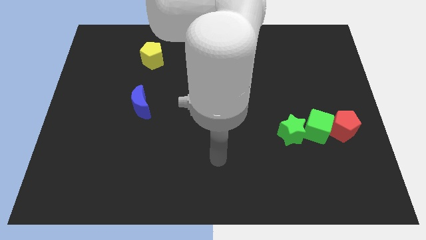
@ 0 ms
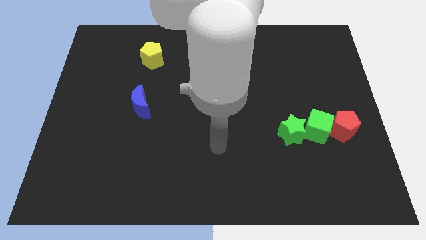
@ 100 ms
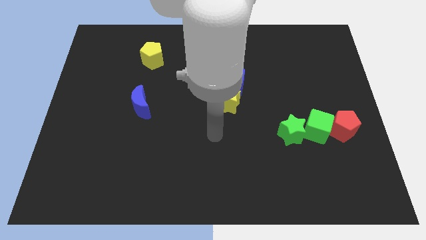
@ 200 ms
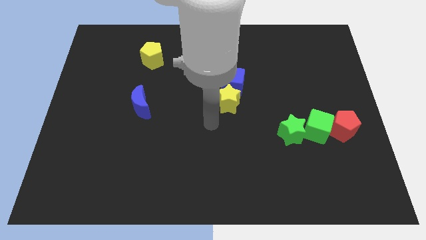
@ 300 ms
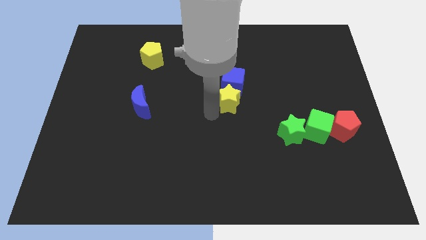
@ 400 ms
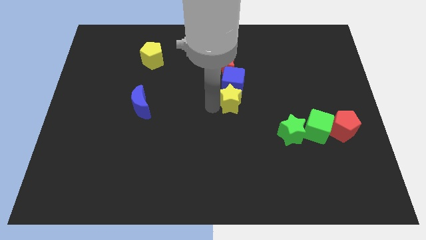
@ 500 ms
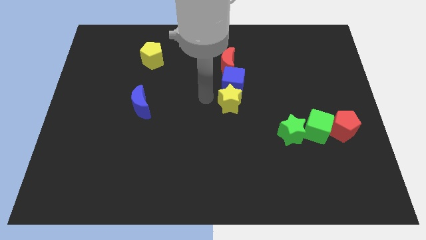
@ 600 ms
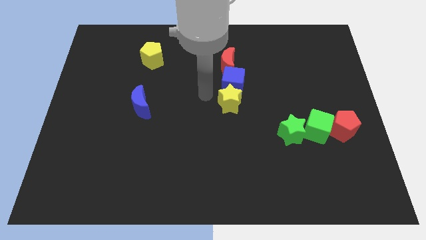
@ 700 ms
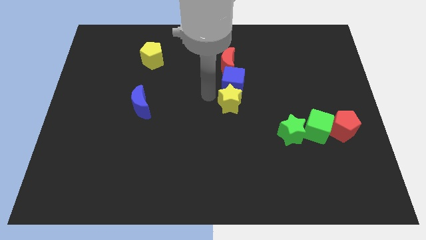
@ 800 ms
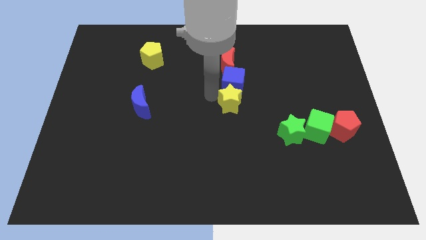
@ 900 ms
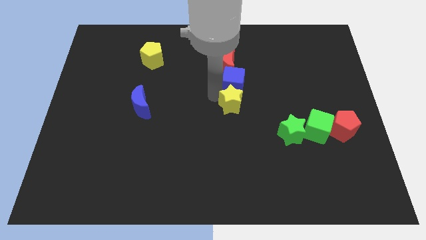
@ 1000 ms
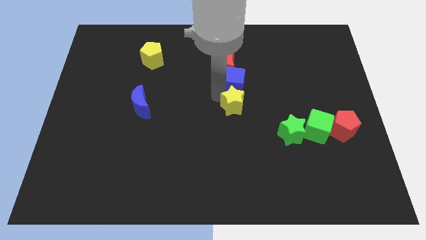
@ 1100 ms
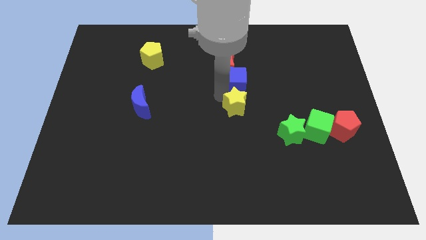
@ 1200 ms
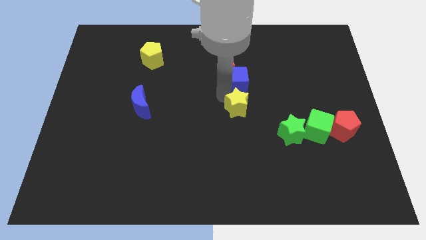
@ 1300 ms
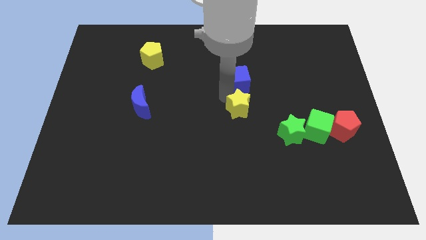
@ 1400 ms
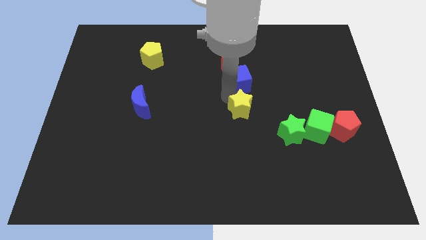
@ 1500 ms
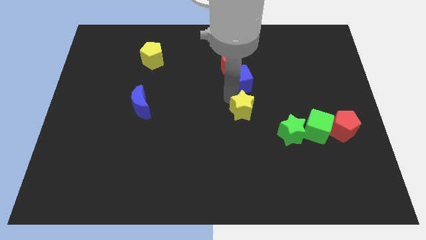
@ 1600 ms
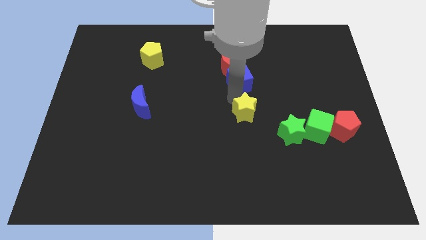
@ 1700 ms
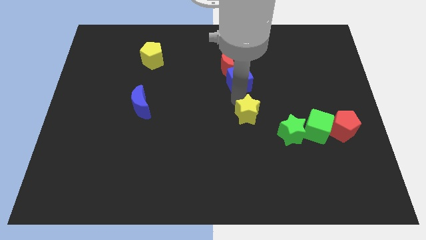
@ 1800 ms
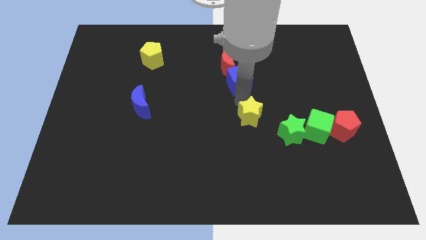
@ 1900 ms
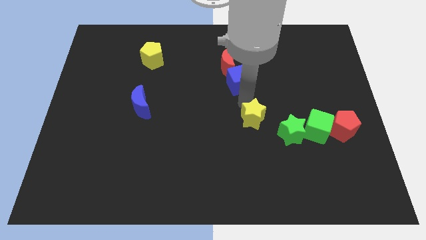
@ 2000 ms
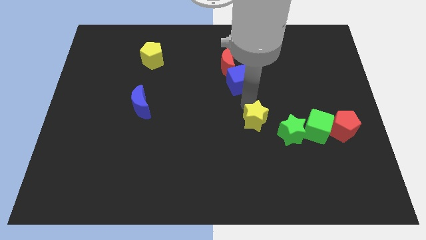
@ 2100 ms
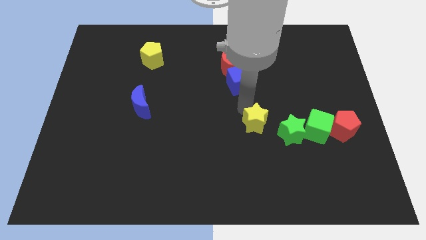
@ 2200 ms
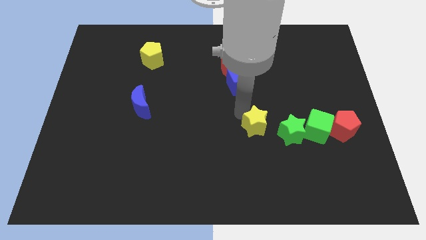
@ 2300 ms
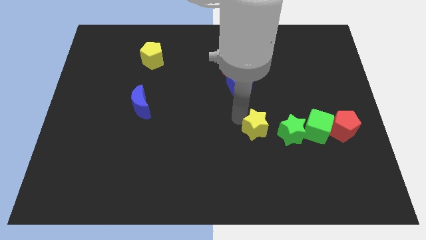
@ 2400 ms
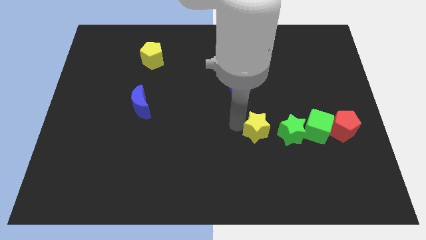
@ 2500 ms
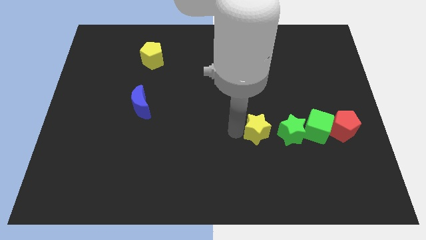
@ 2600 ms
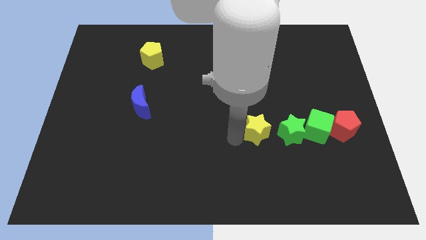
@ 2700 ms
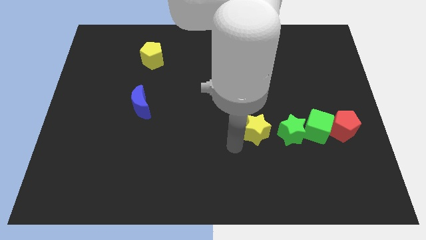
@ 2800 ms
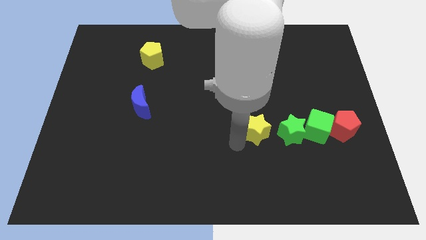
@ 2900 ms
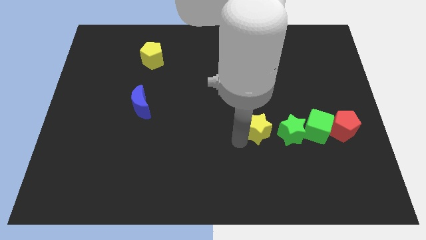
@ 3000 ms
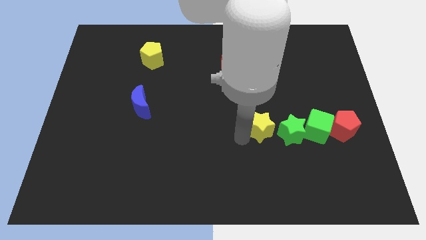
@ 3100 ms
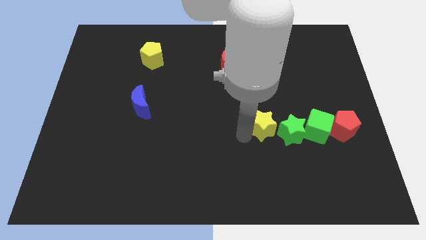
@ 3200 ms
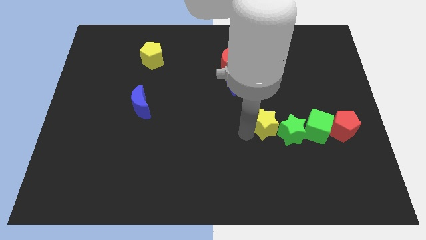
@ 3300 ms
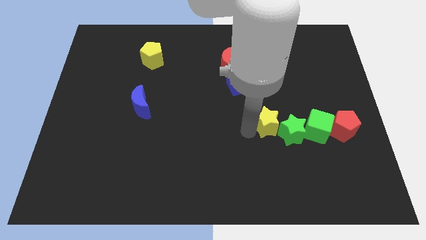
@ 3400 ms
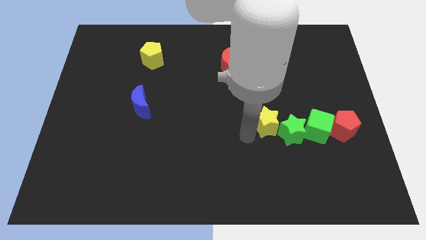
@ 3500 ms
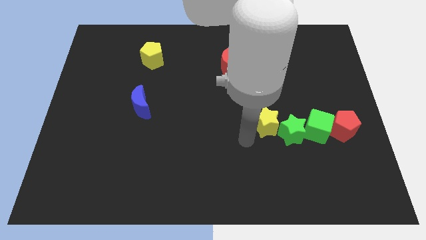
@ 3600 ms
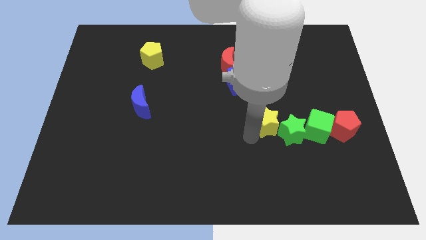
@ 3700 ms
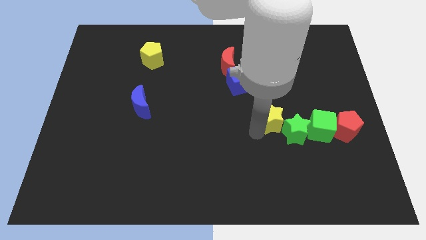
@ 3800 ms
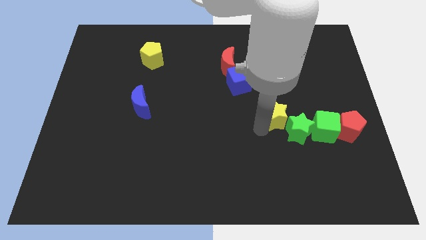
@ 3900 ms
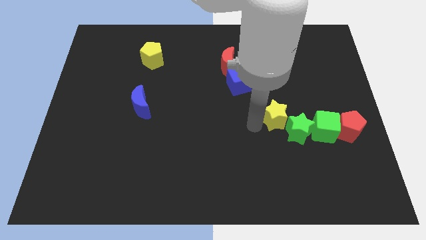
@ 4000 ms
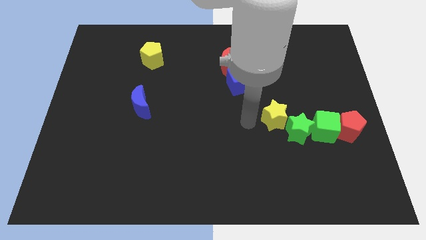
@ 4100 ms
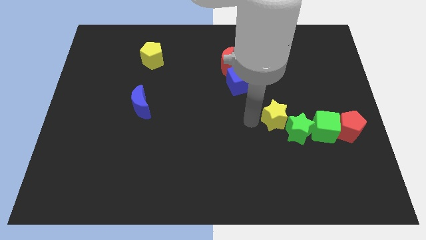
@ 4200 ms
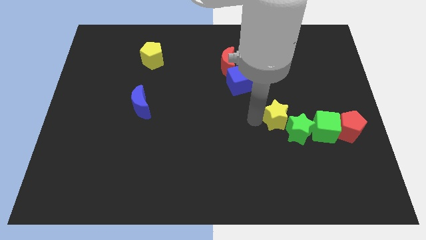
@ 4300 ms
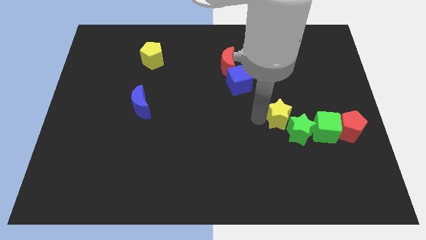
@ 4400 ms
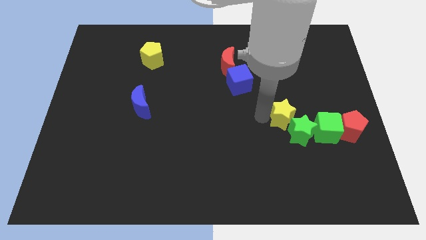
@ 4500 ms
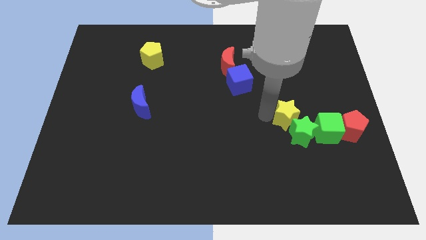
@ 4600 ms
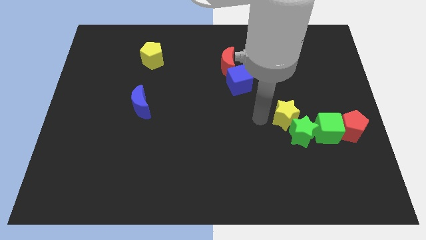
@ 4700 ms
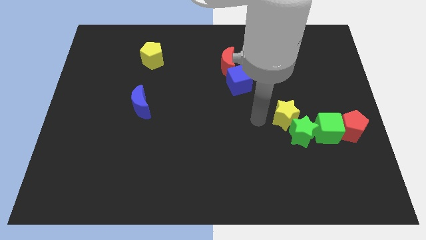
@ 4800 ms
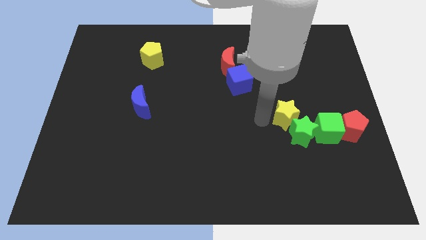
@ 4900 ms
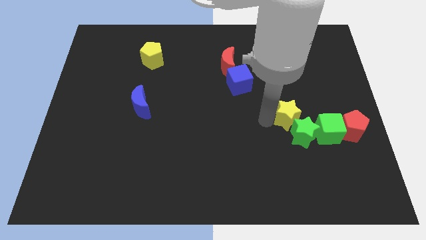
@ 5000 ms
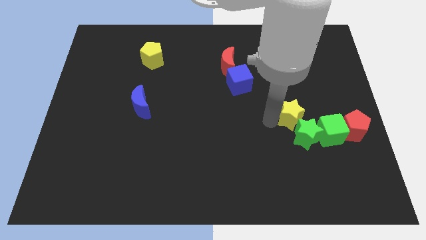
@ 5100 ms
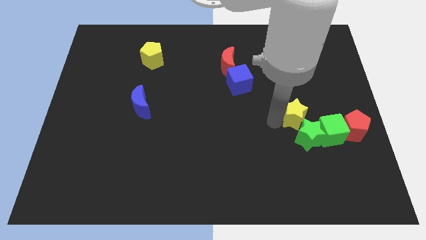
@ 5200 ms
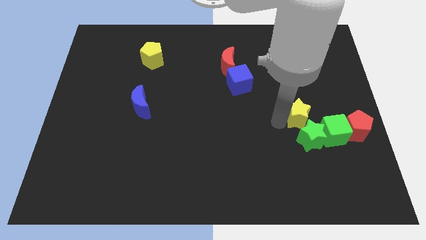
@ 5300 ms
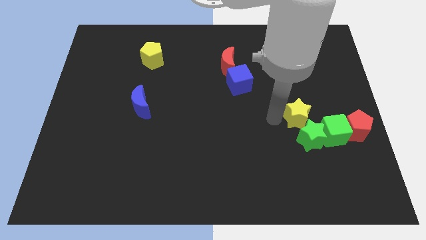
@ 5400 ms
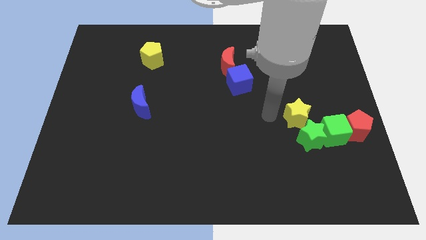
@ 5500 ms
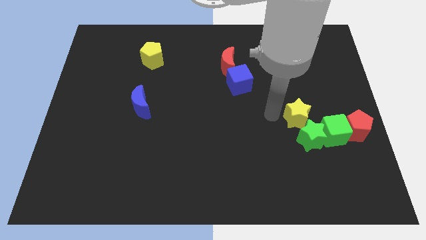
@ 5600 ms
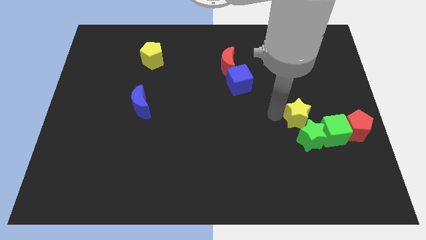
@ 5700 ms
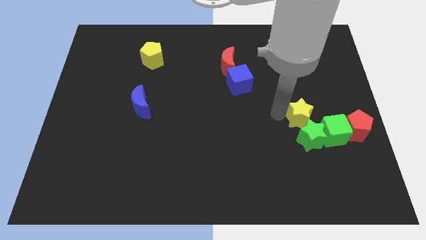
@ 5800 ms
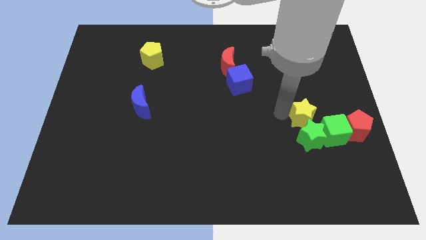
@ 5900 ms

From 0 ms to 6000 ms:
move the yellow star to the top right side of the green star

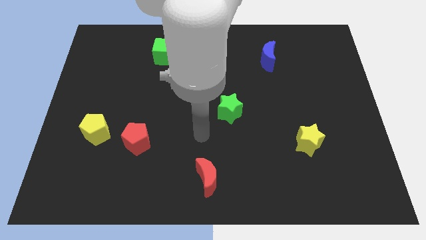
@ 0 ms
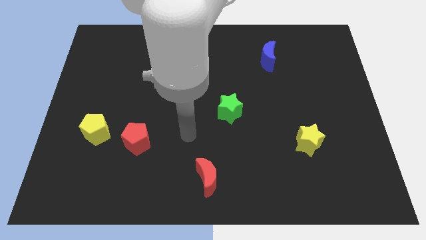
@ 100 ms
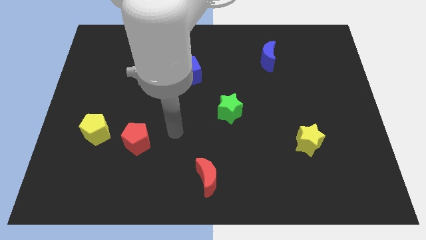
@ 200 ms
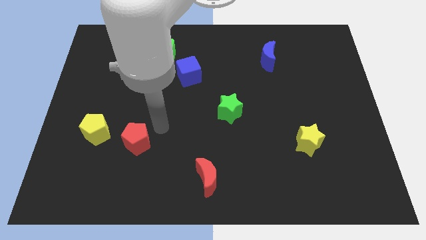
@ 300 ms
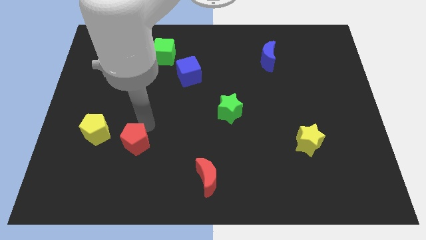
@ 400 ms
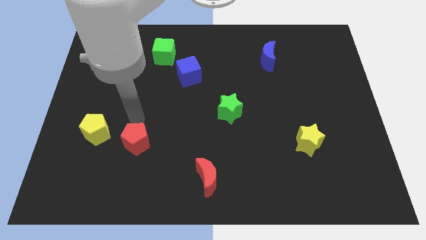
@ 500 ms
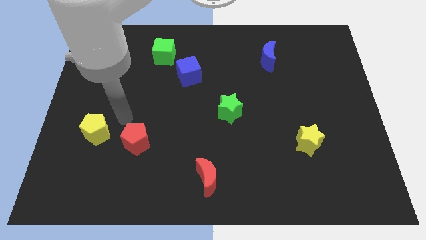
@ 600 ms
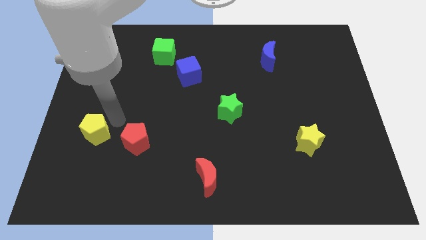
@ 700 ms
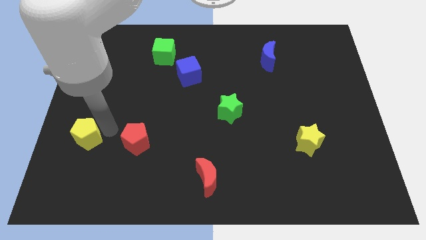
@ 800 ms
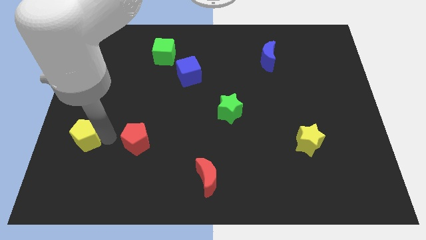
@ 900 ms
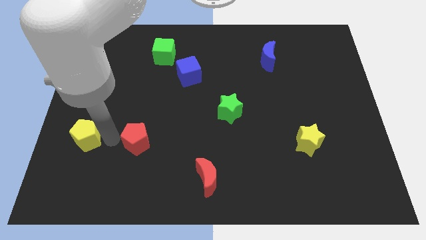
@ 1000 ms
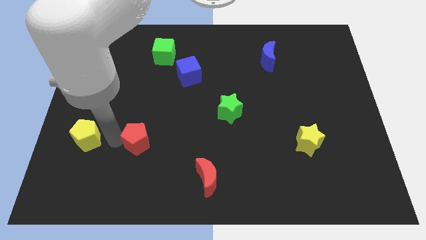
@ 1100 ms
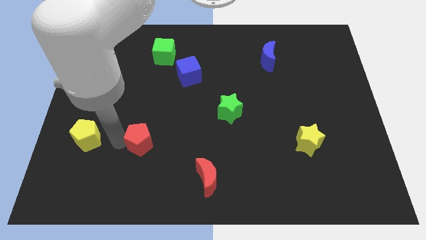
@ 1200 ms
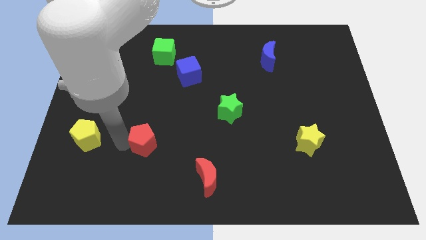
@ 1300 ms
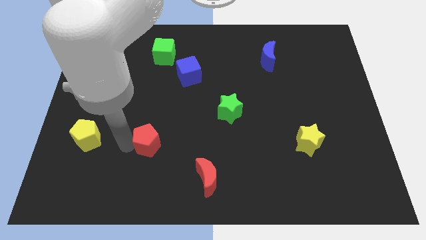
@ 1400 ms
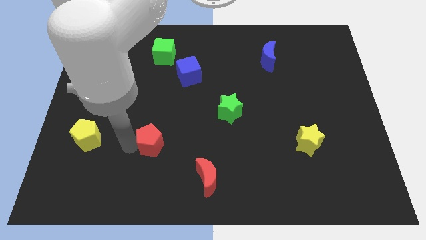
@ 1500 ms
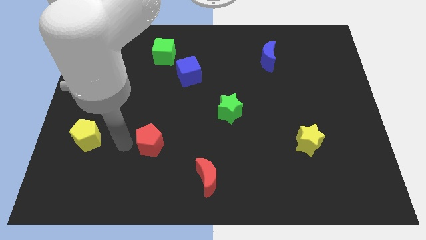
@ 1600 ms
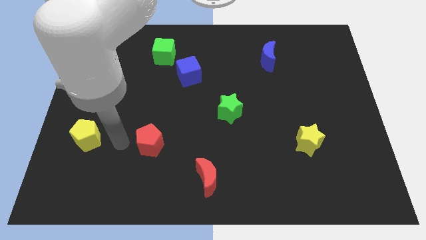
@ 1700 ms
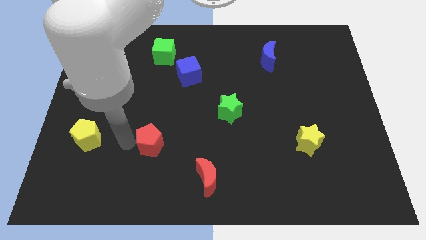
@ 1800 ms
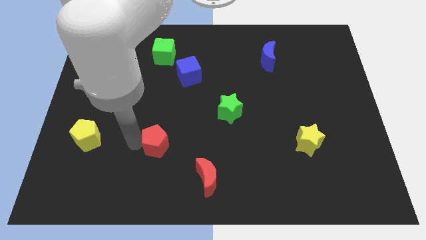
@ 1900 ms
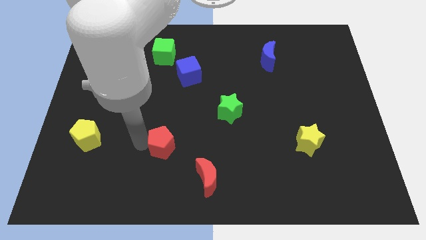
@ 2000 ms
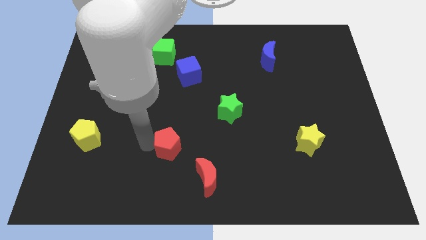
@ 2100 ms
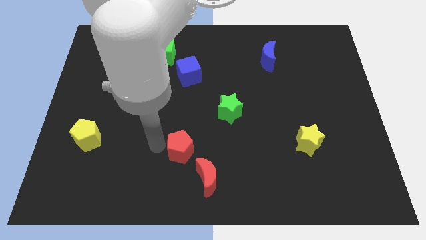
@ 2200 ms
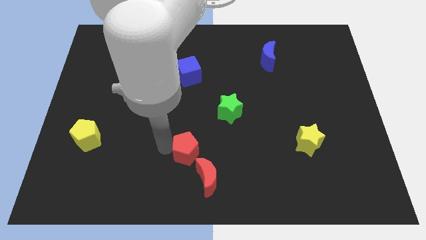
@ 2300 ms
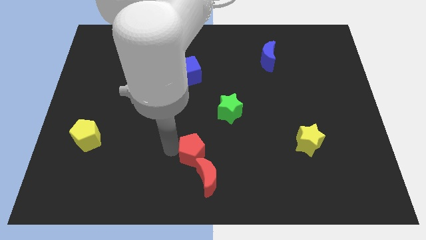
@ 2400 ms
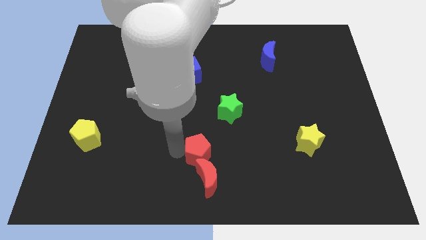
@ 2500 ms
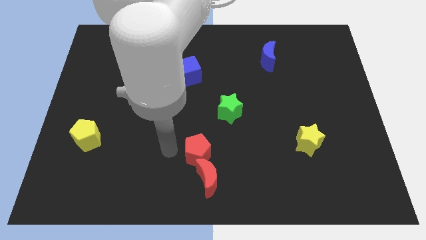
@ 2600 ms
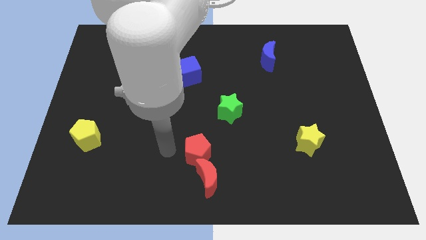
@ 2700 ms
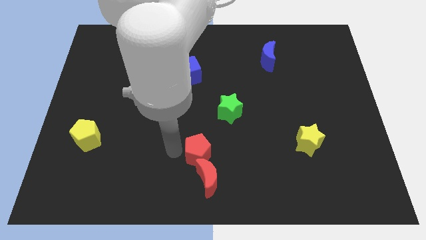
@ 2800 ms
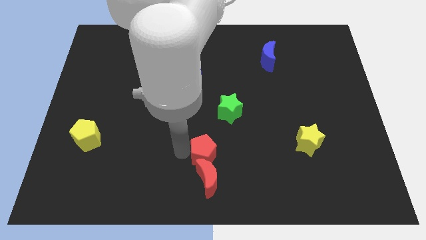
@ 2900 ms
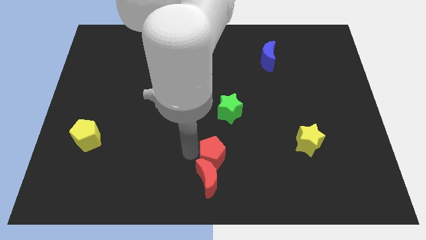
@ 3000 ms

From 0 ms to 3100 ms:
slide the red pentagon diagonally up and to the right of the red moon
